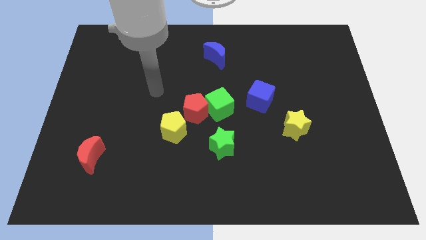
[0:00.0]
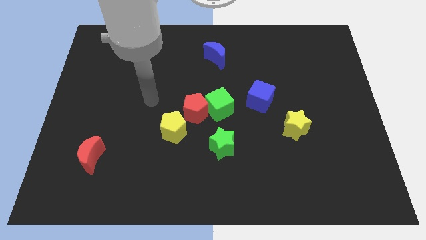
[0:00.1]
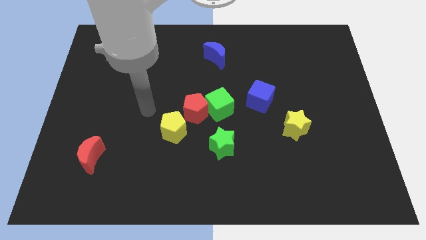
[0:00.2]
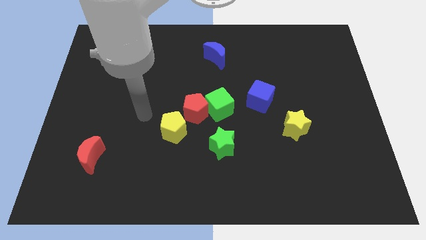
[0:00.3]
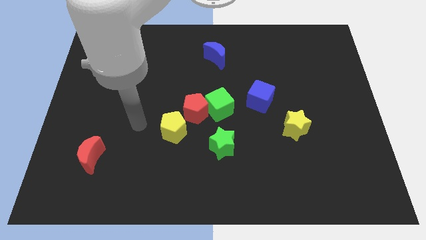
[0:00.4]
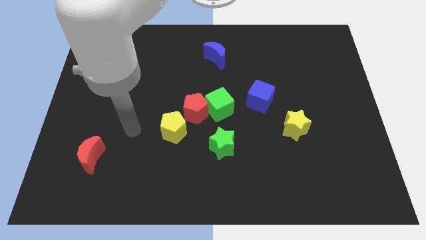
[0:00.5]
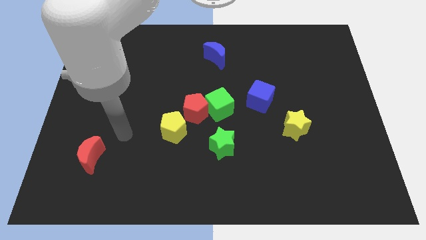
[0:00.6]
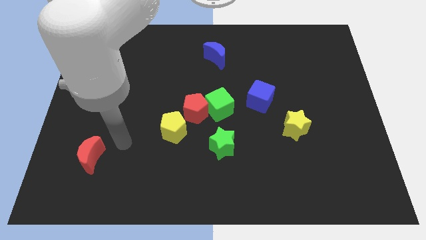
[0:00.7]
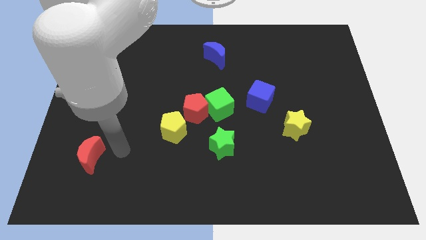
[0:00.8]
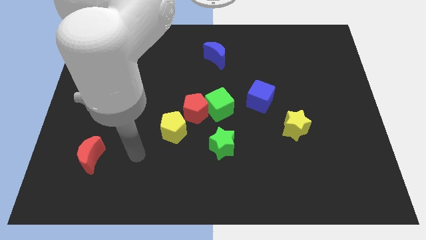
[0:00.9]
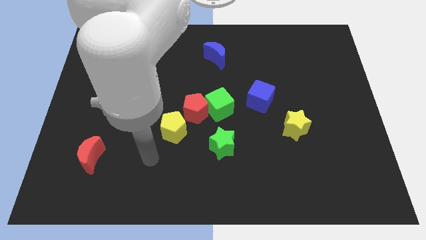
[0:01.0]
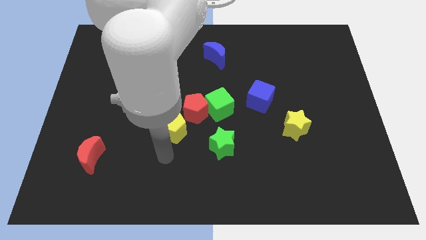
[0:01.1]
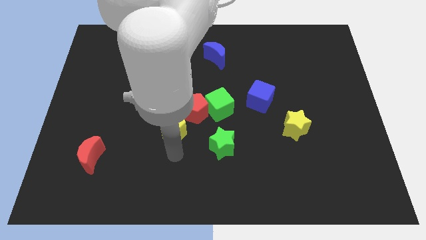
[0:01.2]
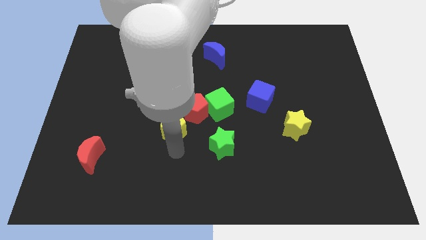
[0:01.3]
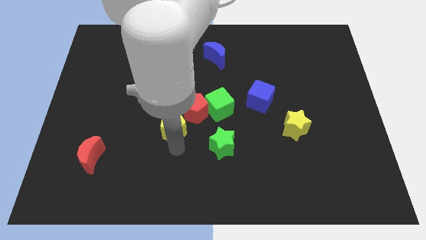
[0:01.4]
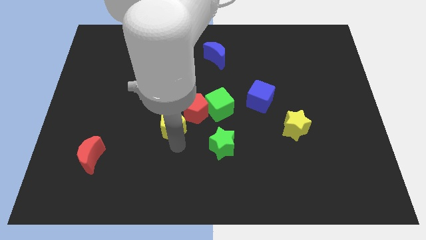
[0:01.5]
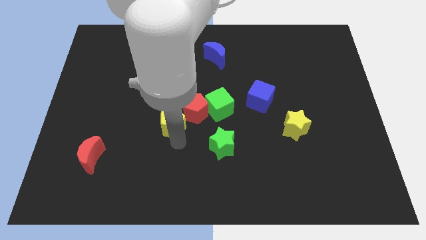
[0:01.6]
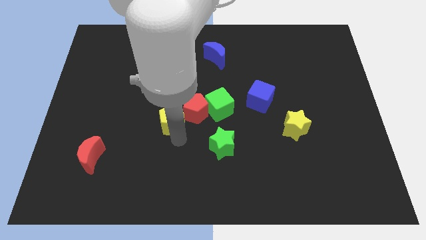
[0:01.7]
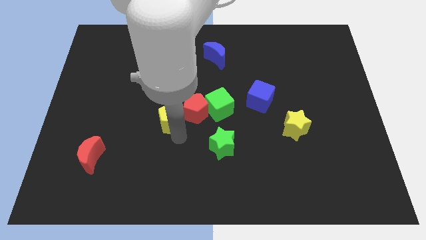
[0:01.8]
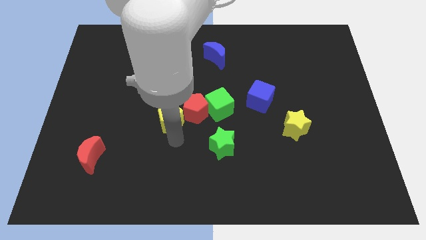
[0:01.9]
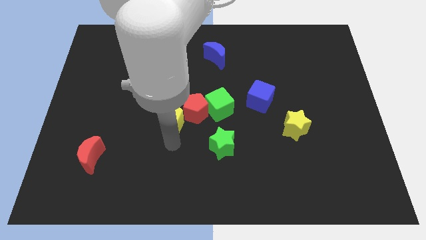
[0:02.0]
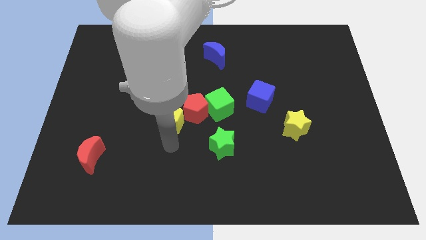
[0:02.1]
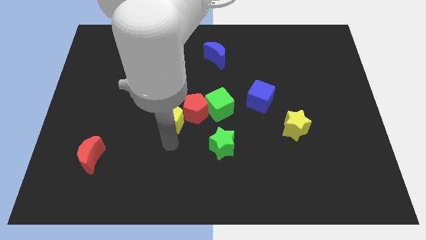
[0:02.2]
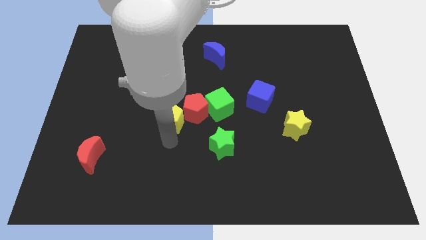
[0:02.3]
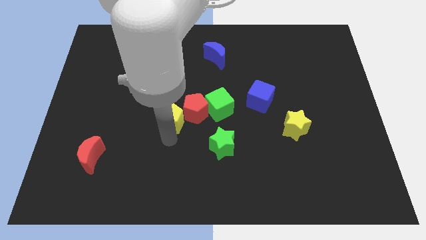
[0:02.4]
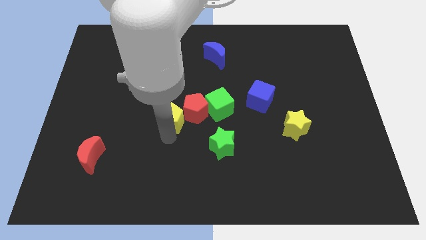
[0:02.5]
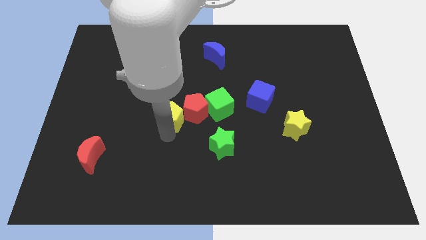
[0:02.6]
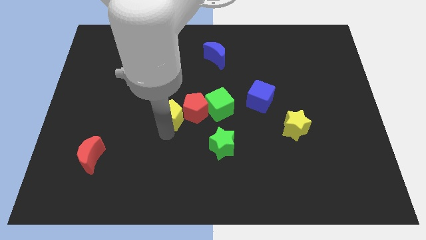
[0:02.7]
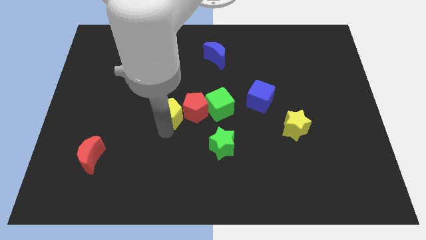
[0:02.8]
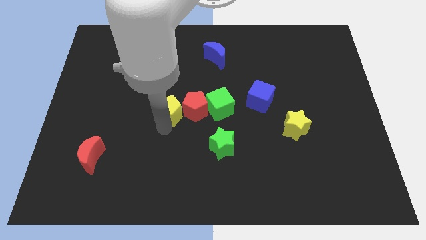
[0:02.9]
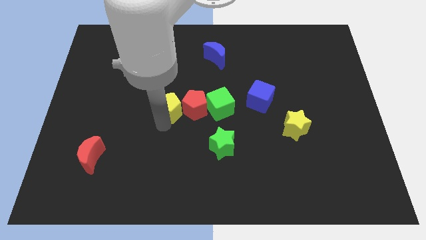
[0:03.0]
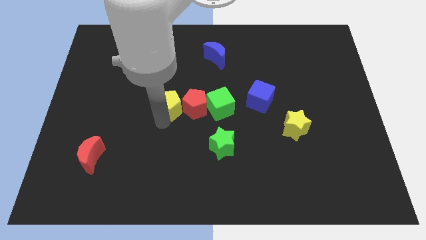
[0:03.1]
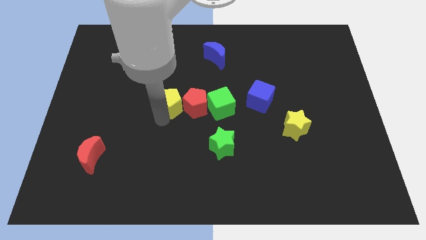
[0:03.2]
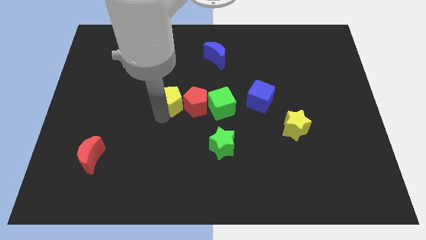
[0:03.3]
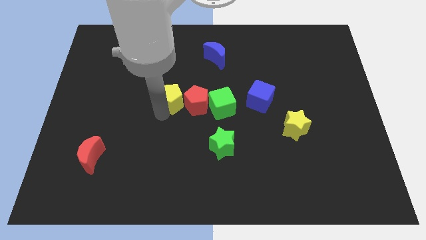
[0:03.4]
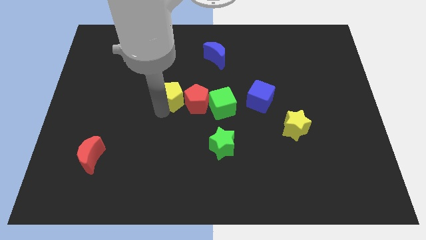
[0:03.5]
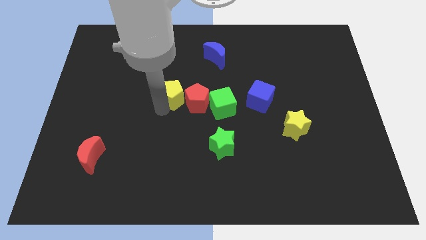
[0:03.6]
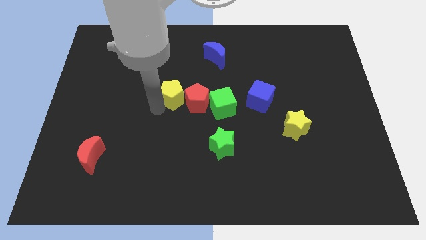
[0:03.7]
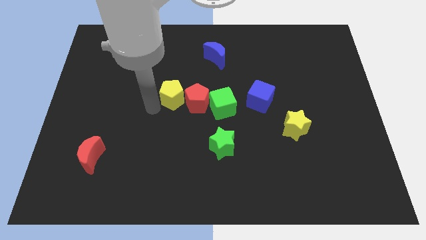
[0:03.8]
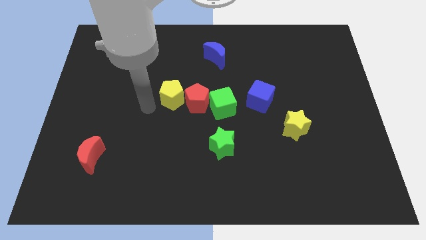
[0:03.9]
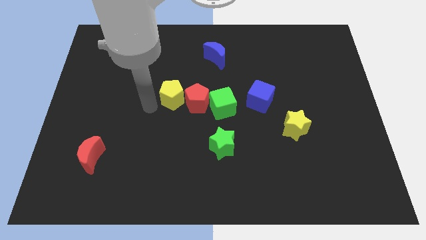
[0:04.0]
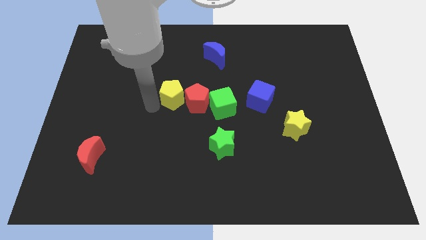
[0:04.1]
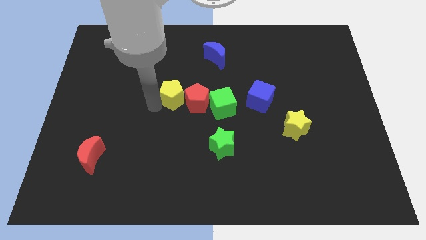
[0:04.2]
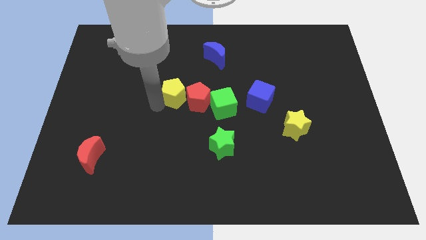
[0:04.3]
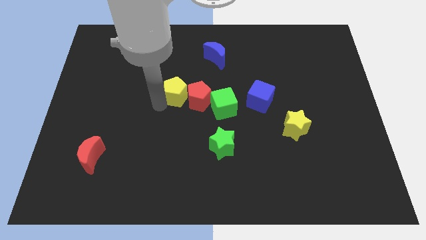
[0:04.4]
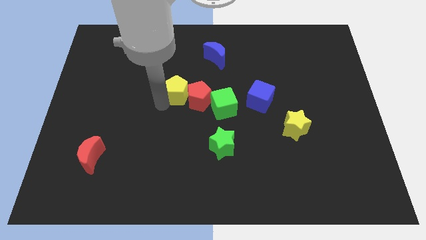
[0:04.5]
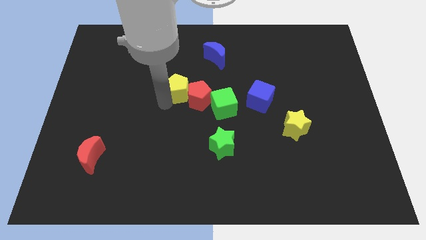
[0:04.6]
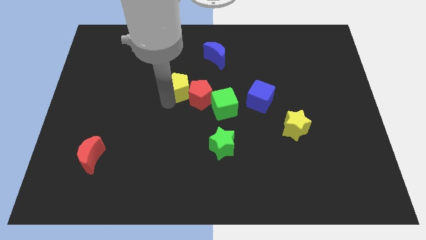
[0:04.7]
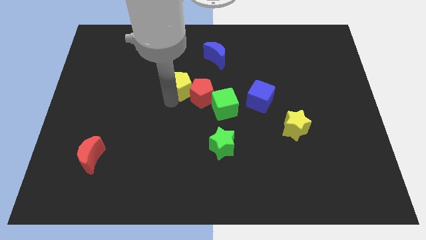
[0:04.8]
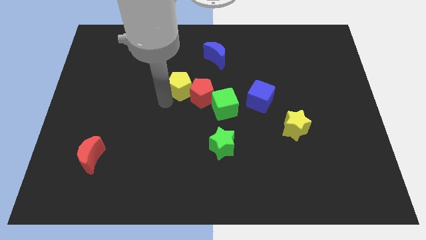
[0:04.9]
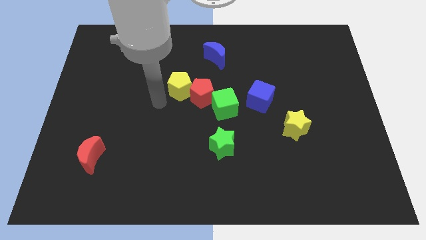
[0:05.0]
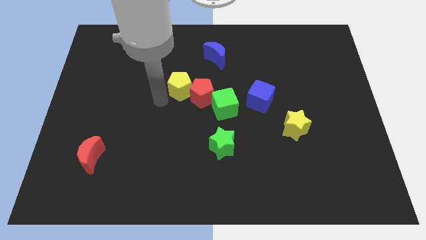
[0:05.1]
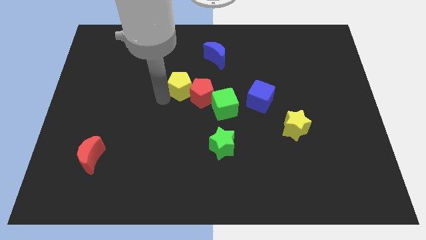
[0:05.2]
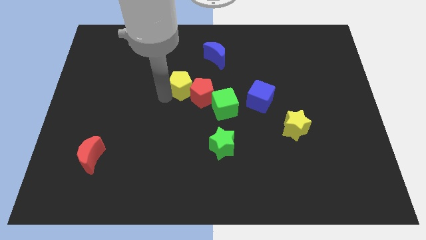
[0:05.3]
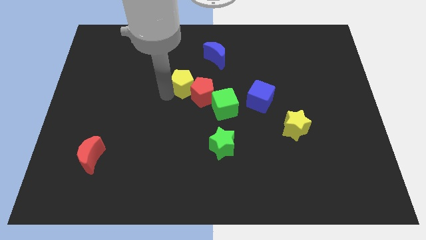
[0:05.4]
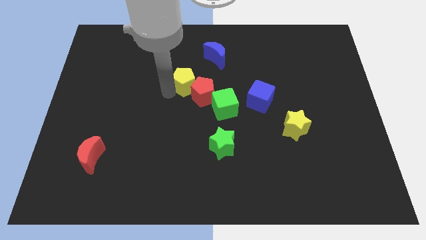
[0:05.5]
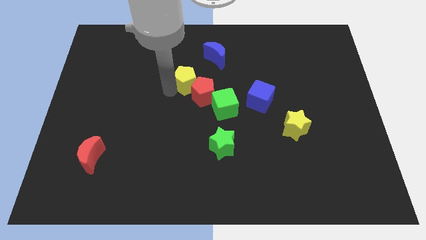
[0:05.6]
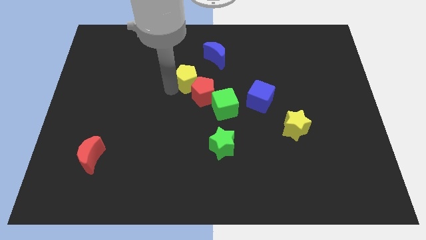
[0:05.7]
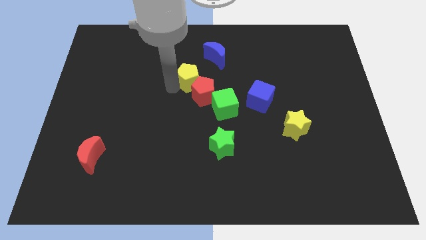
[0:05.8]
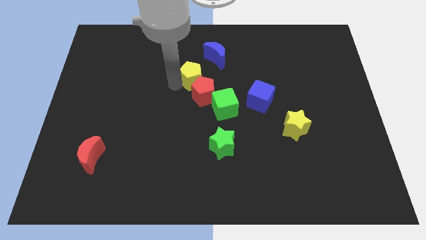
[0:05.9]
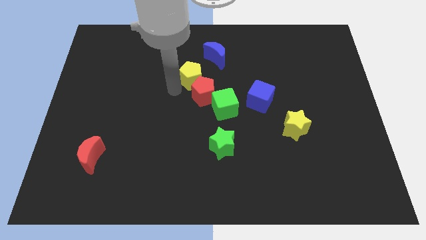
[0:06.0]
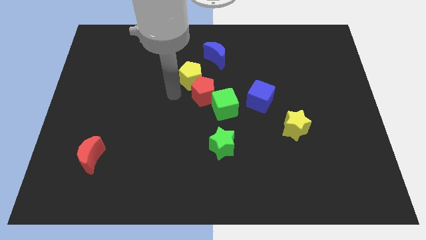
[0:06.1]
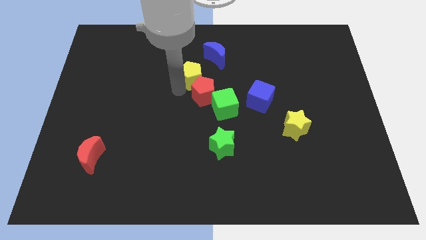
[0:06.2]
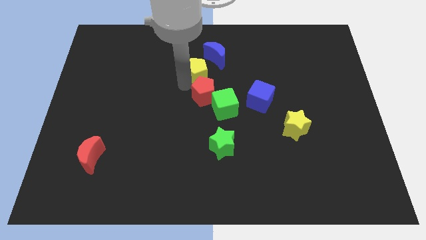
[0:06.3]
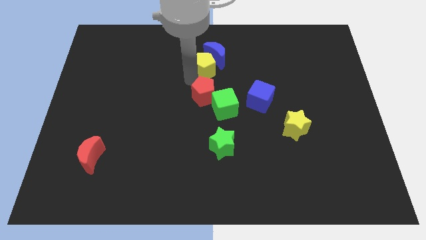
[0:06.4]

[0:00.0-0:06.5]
move the yellow pentagon next to the blue moon

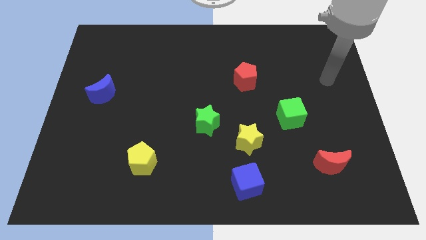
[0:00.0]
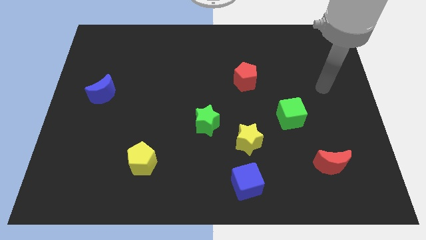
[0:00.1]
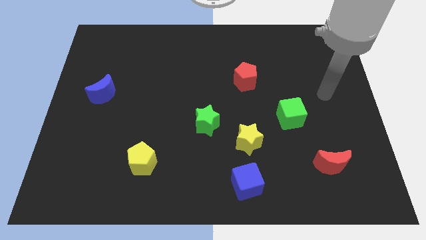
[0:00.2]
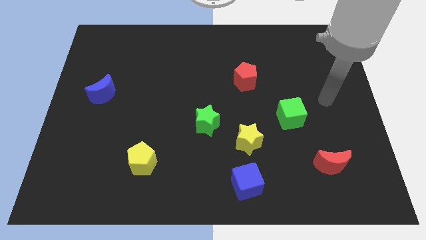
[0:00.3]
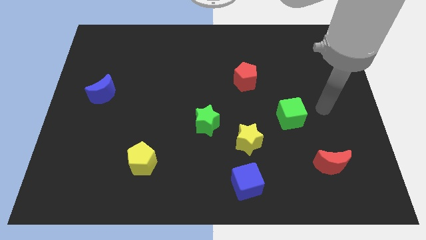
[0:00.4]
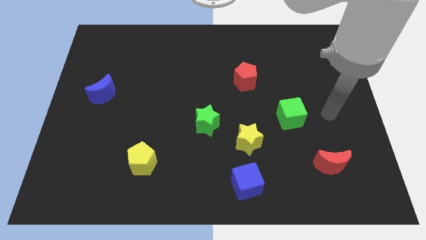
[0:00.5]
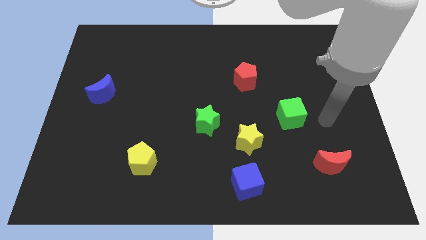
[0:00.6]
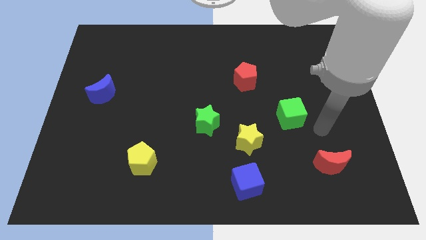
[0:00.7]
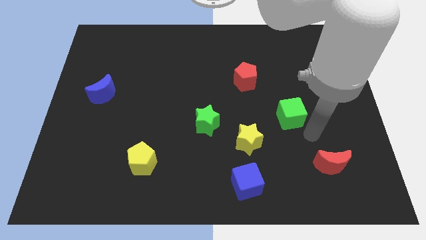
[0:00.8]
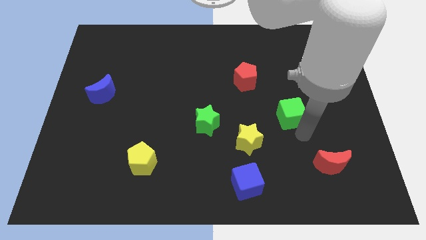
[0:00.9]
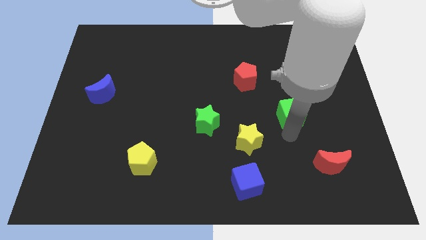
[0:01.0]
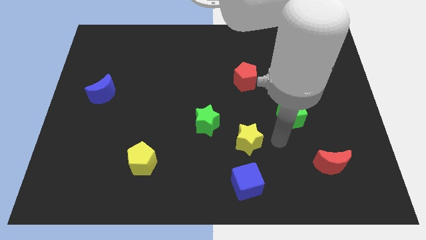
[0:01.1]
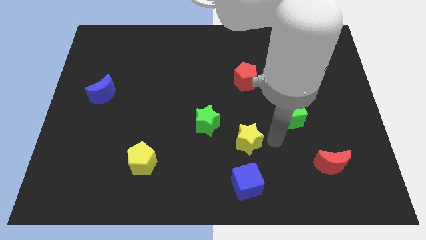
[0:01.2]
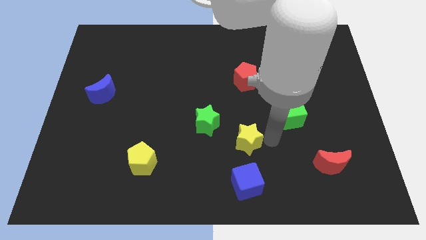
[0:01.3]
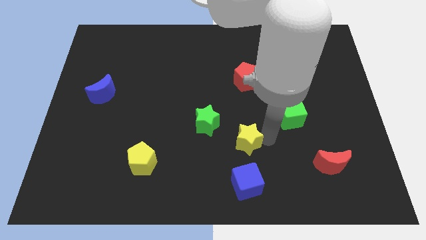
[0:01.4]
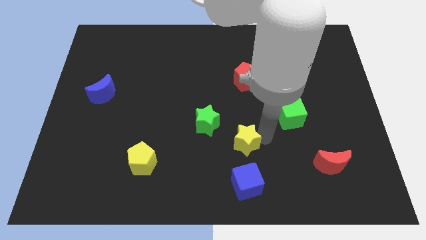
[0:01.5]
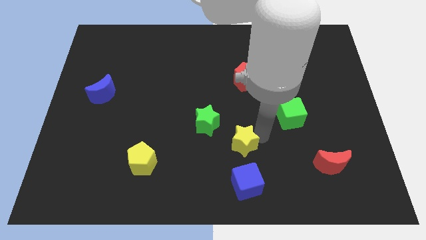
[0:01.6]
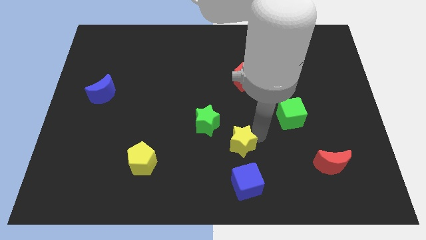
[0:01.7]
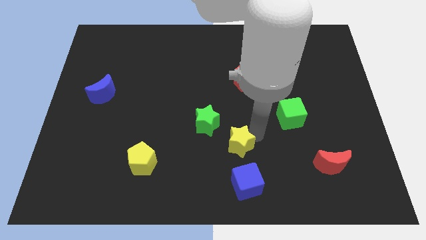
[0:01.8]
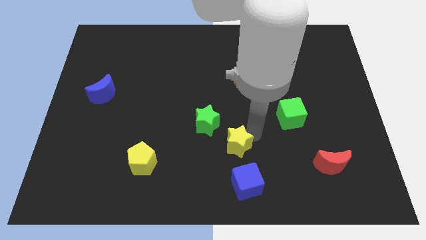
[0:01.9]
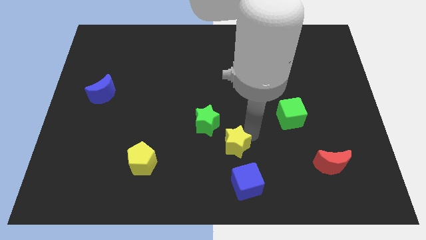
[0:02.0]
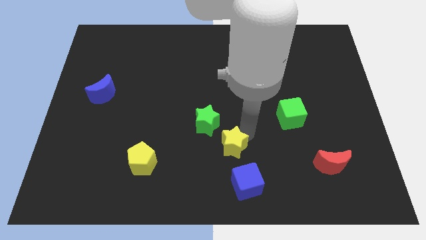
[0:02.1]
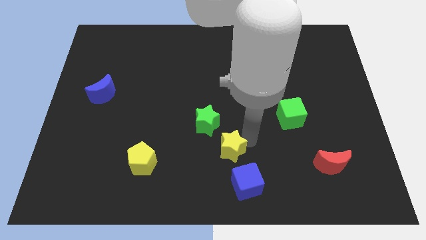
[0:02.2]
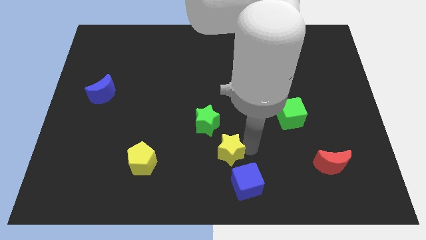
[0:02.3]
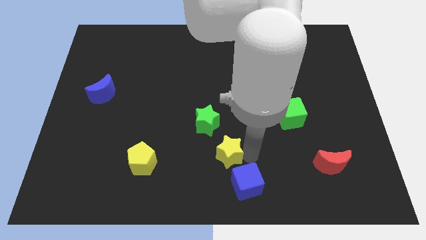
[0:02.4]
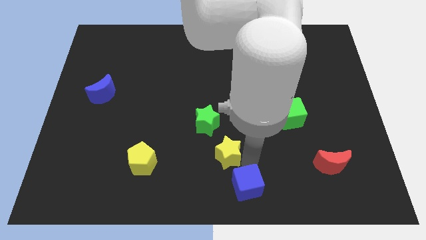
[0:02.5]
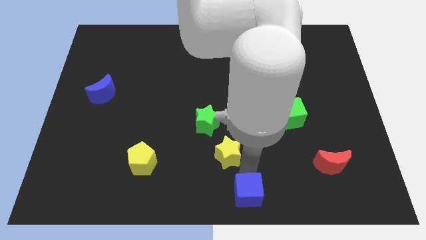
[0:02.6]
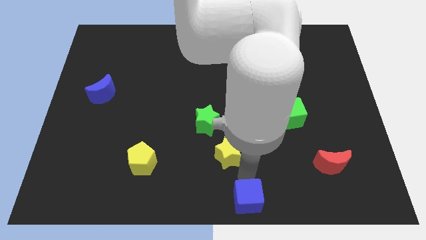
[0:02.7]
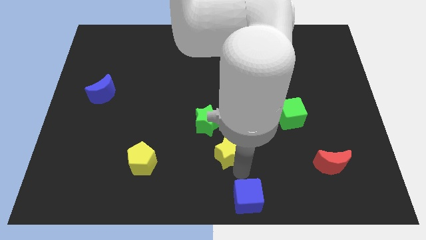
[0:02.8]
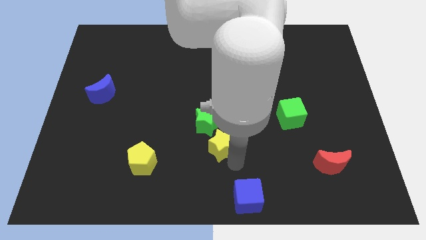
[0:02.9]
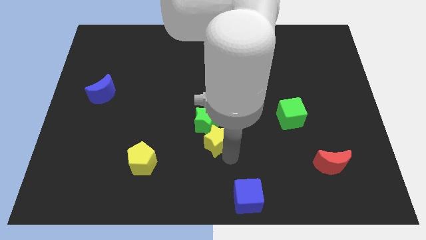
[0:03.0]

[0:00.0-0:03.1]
move the yellow star next to the green star
